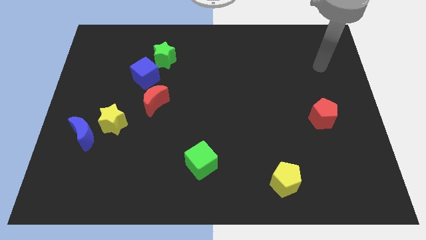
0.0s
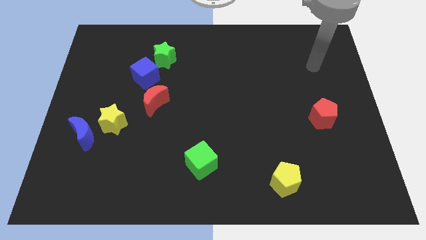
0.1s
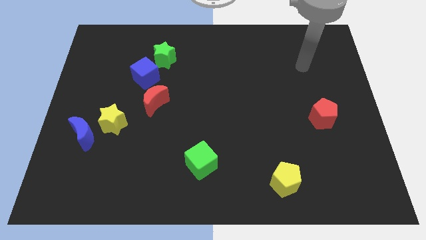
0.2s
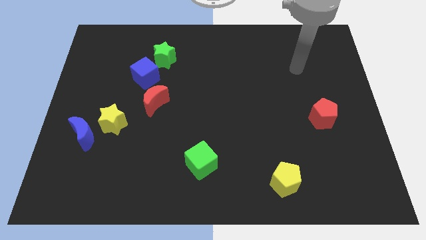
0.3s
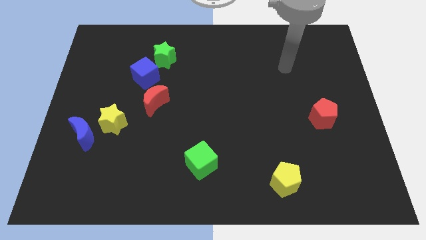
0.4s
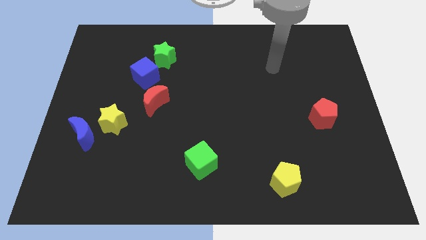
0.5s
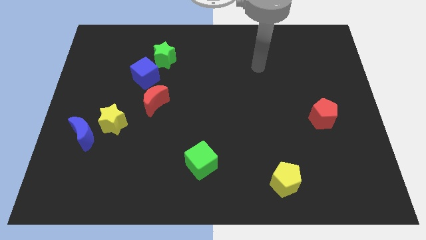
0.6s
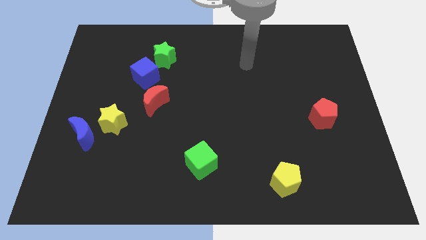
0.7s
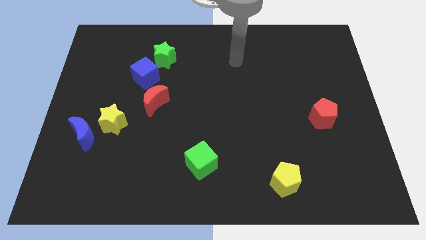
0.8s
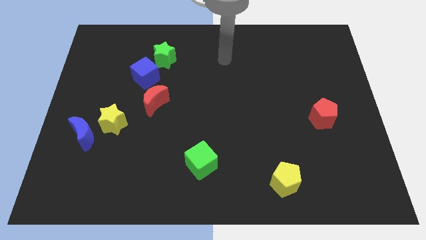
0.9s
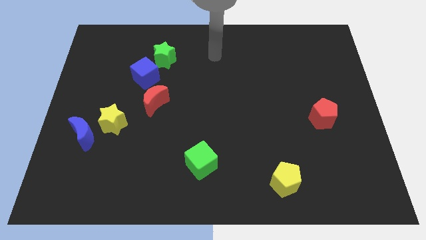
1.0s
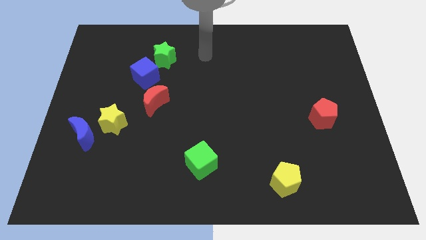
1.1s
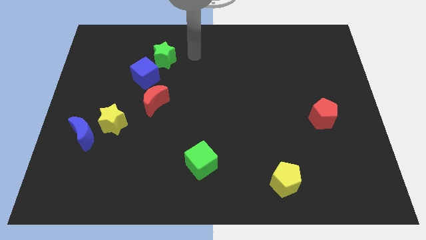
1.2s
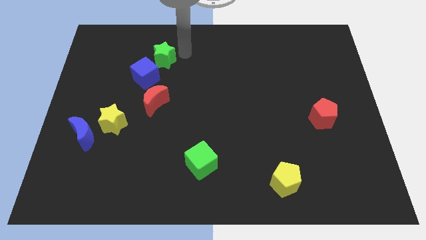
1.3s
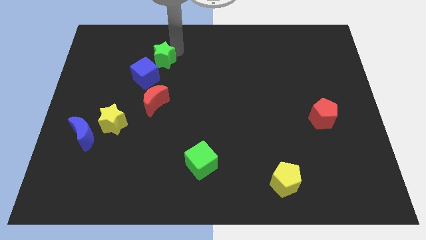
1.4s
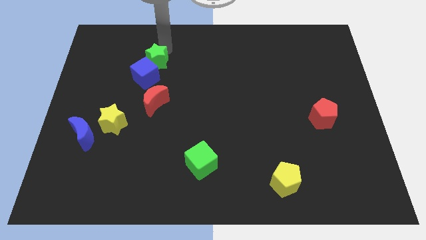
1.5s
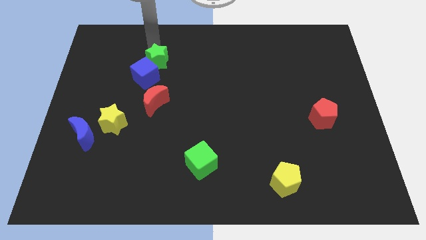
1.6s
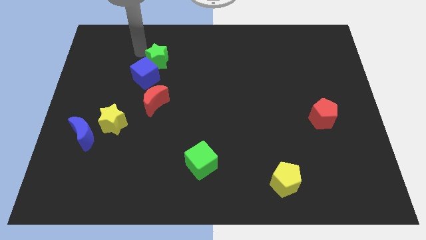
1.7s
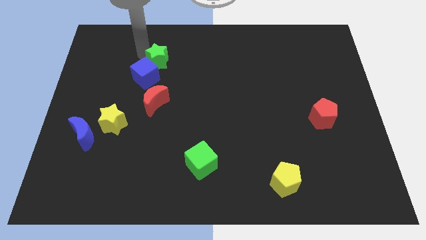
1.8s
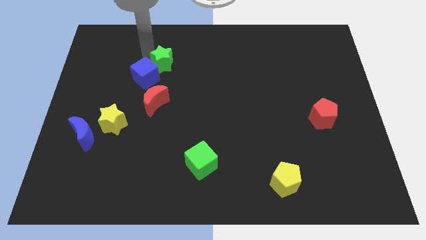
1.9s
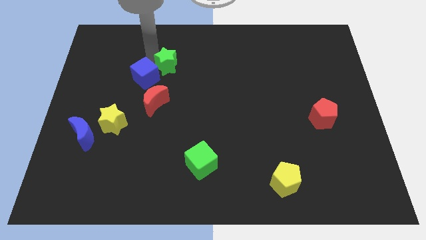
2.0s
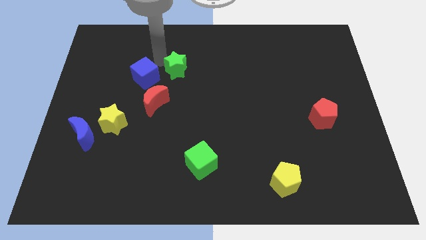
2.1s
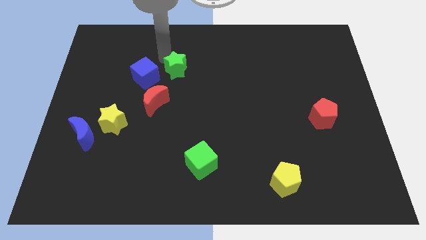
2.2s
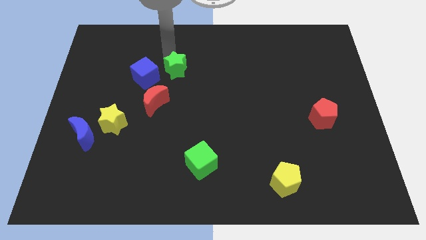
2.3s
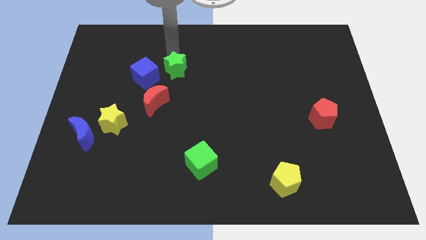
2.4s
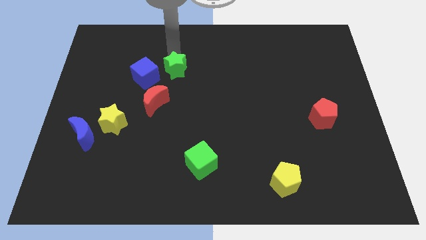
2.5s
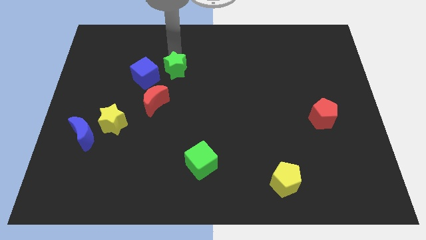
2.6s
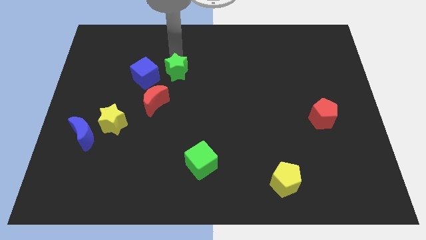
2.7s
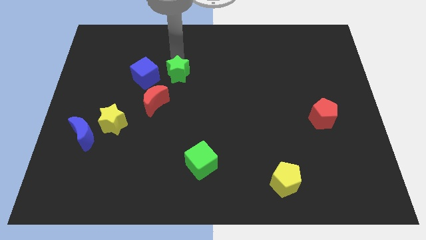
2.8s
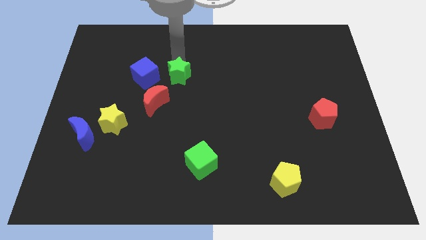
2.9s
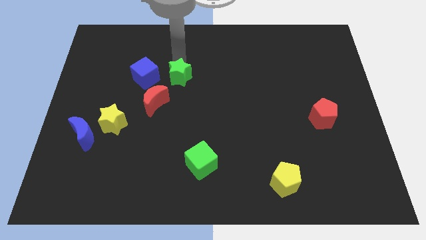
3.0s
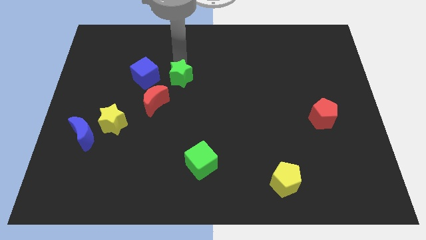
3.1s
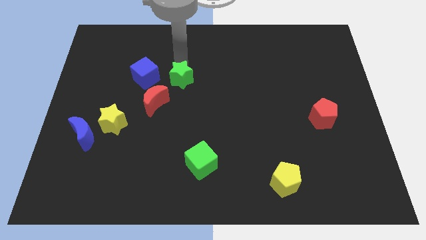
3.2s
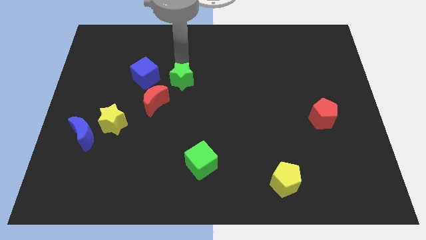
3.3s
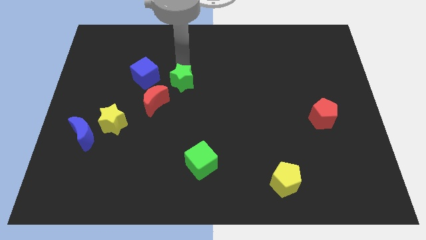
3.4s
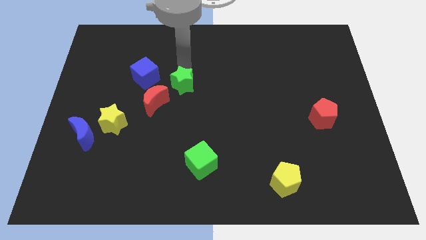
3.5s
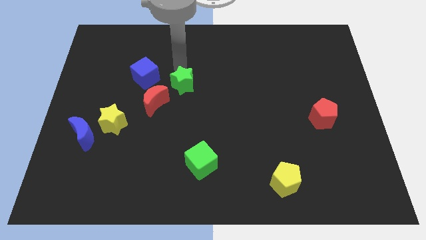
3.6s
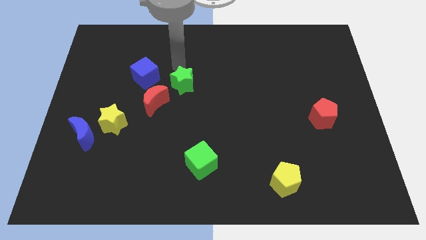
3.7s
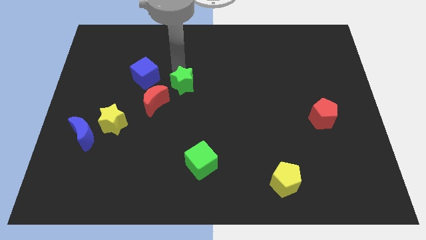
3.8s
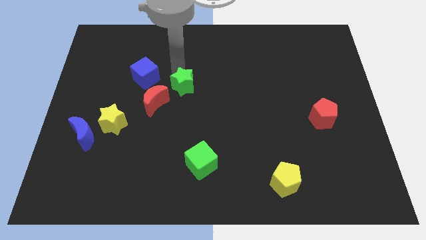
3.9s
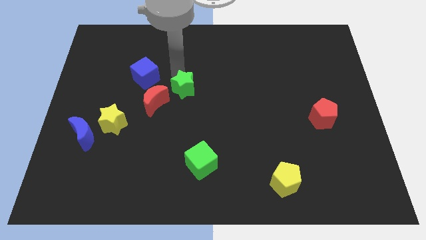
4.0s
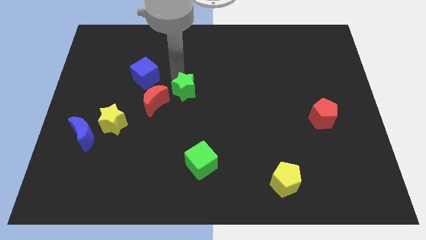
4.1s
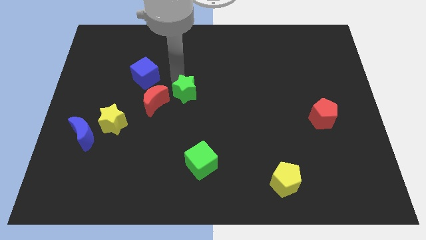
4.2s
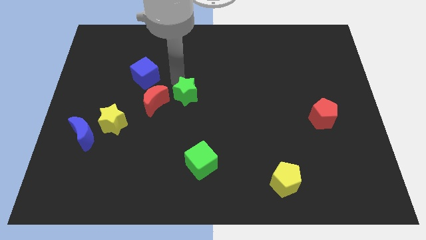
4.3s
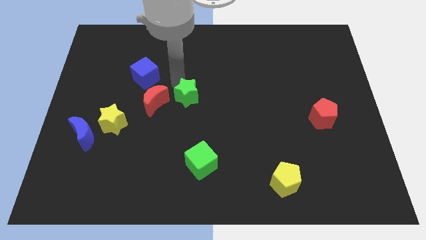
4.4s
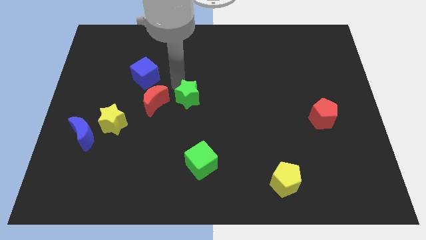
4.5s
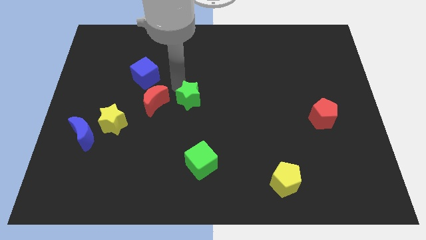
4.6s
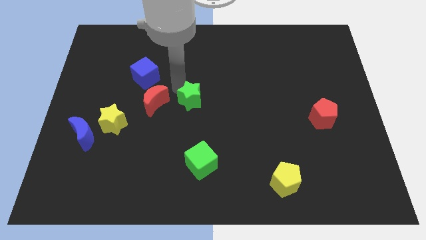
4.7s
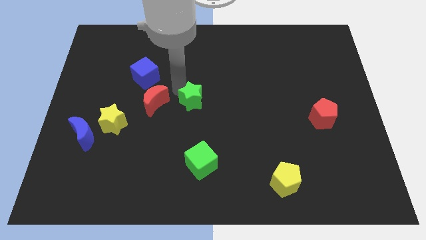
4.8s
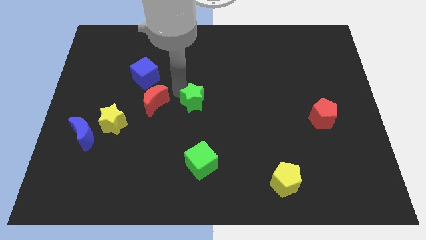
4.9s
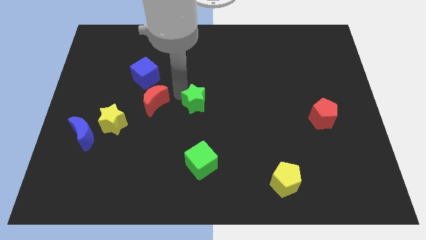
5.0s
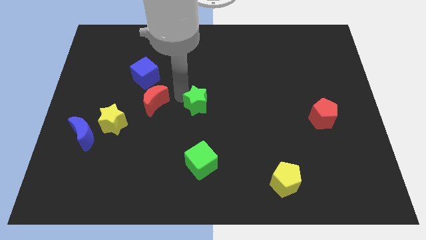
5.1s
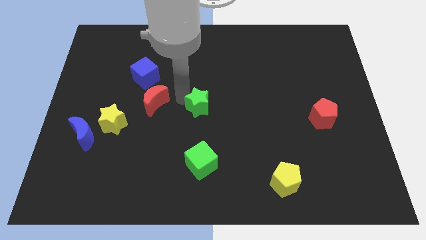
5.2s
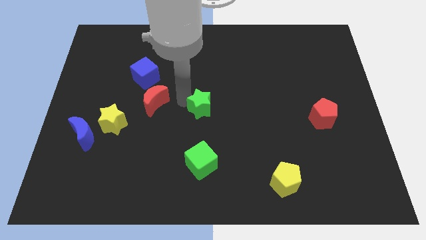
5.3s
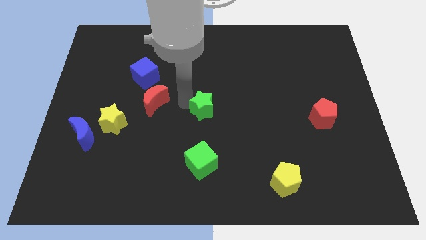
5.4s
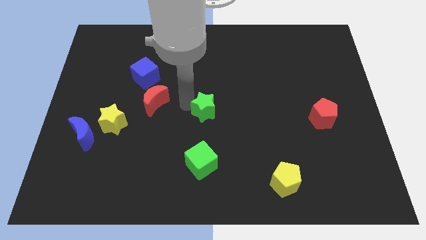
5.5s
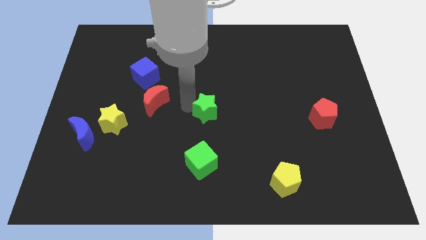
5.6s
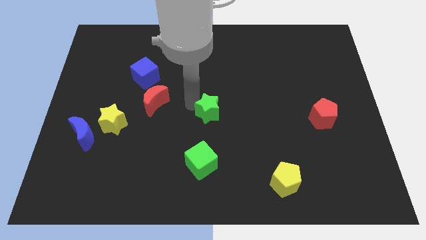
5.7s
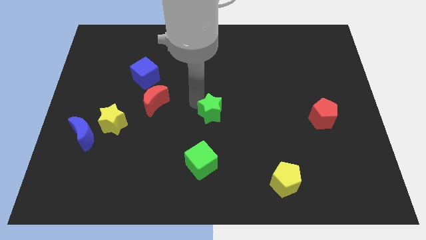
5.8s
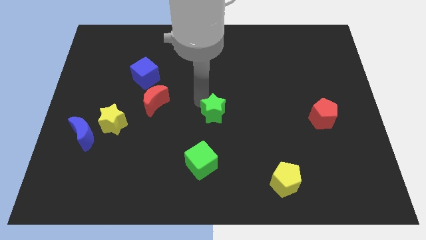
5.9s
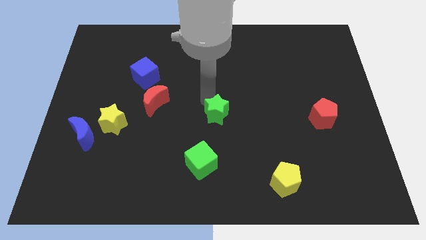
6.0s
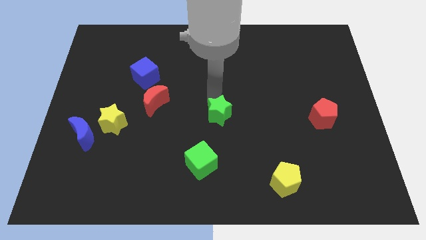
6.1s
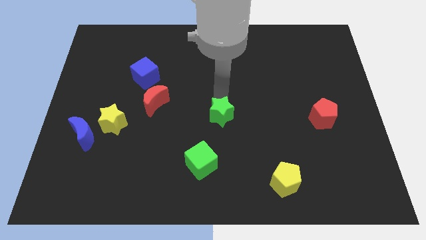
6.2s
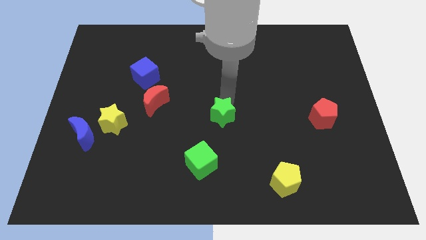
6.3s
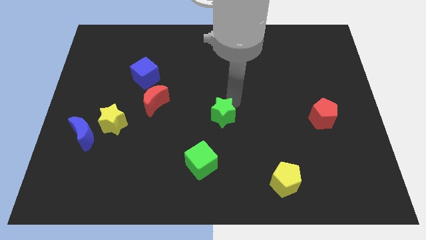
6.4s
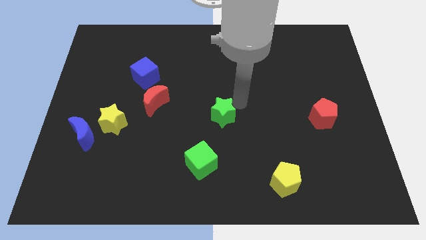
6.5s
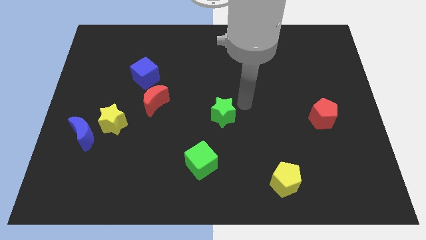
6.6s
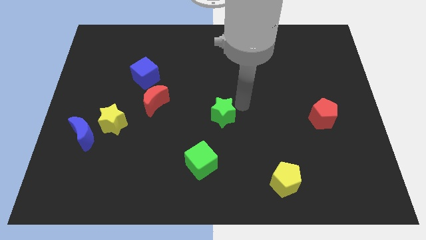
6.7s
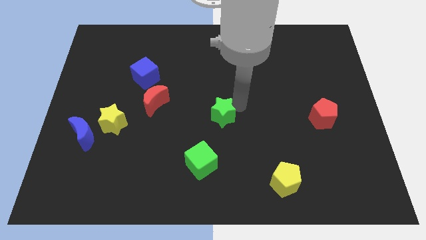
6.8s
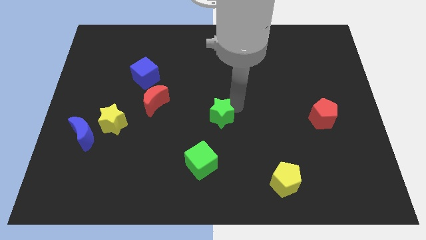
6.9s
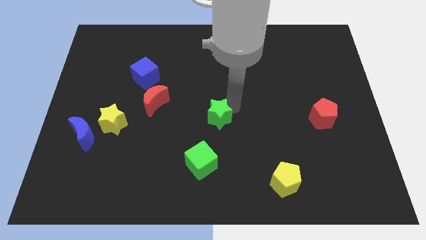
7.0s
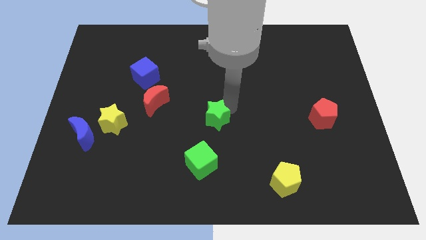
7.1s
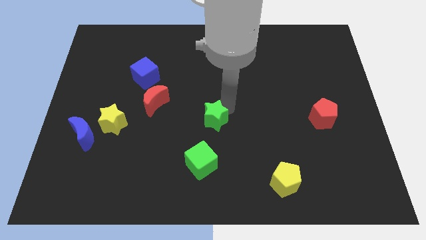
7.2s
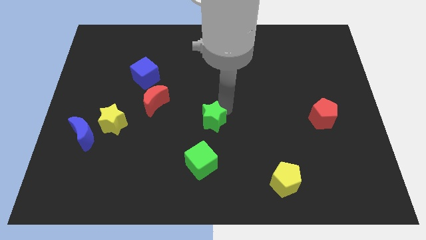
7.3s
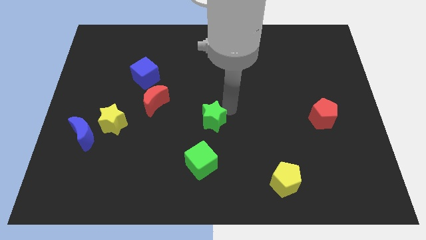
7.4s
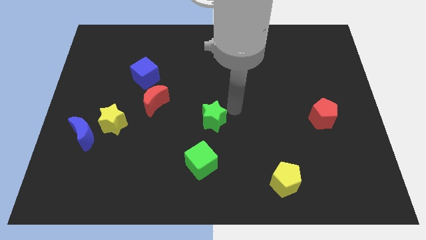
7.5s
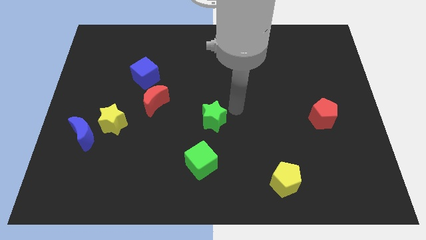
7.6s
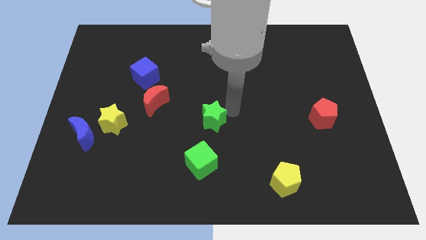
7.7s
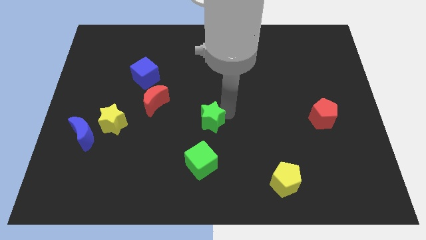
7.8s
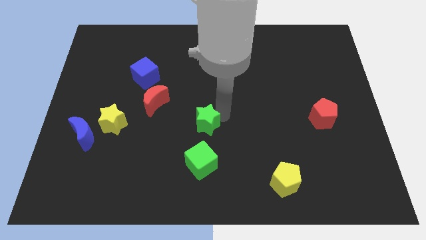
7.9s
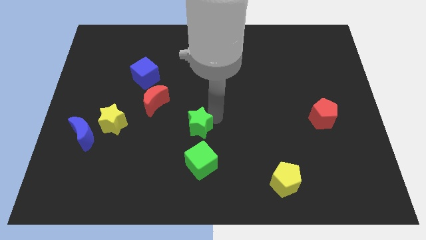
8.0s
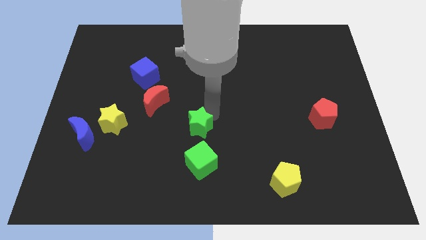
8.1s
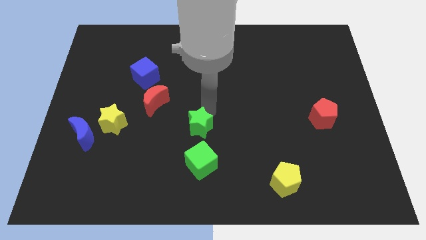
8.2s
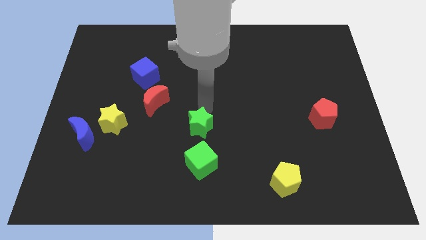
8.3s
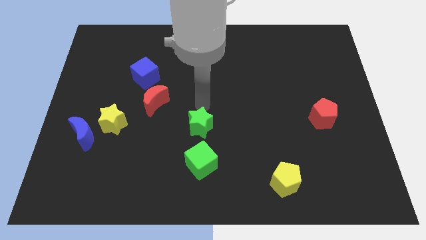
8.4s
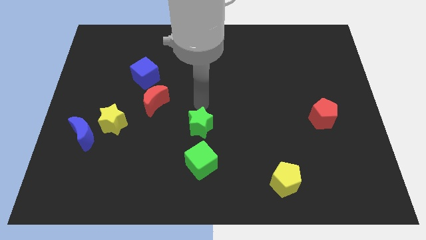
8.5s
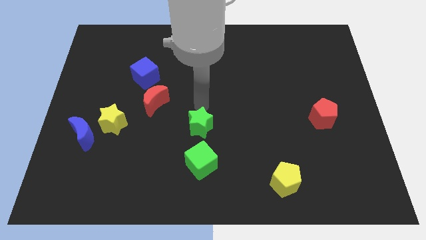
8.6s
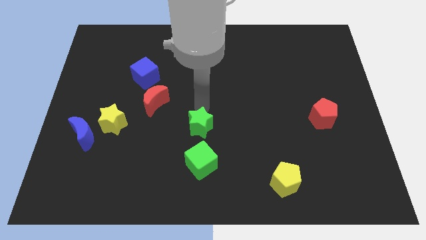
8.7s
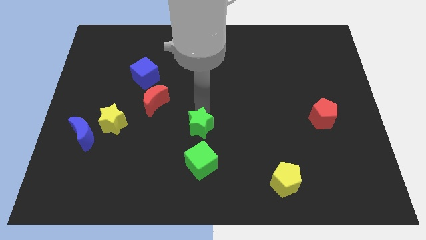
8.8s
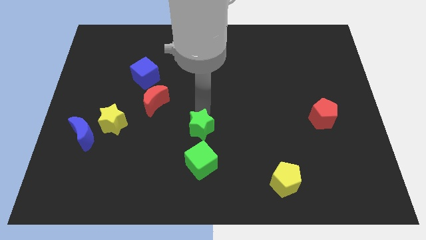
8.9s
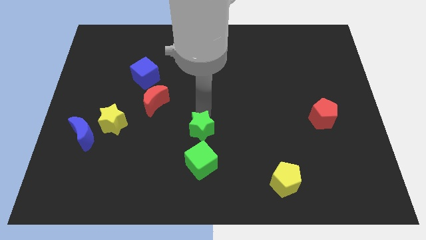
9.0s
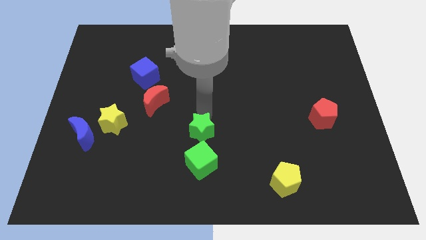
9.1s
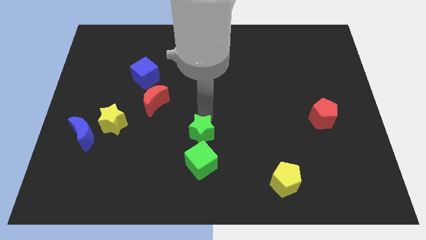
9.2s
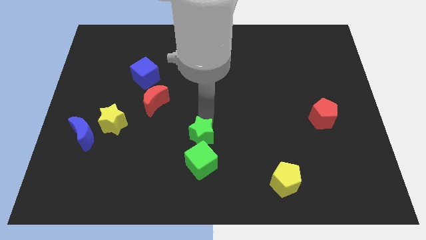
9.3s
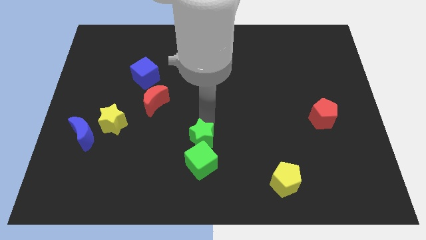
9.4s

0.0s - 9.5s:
put the green star close to the green cube
